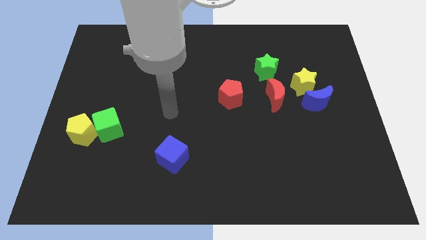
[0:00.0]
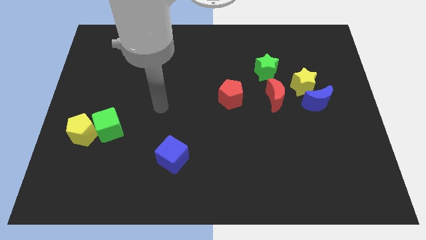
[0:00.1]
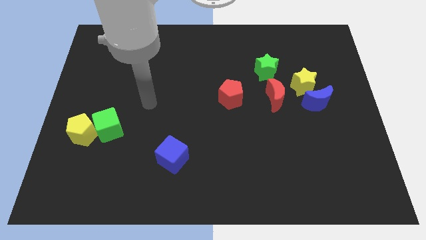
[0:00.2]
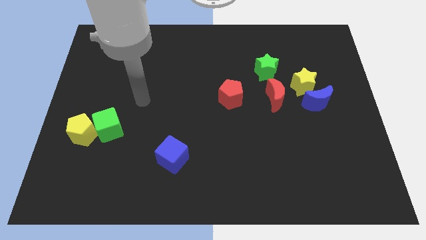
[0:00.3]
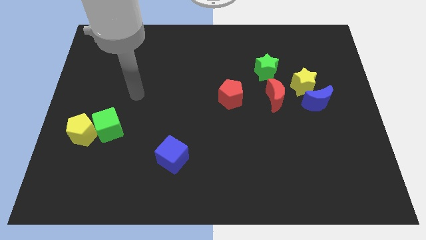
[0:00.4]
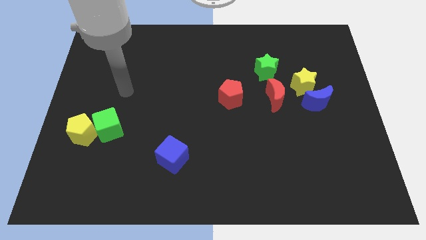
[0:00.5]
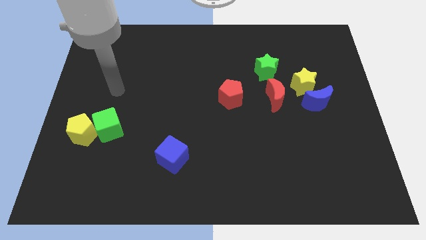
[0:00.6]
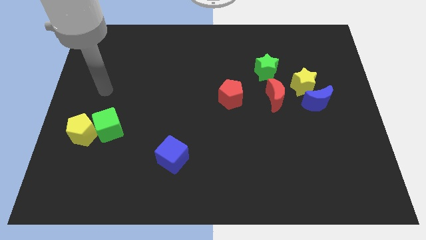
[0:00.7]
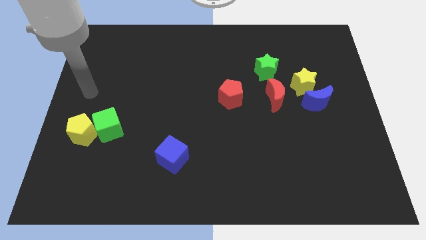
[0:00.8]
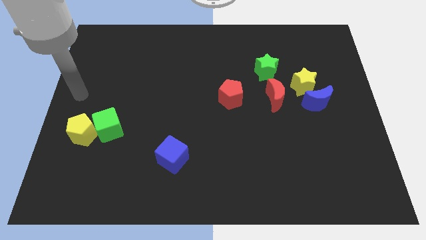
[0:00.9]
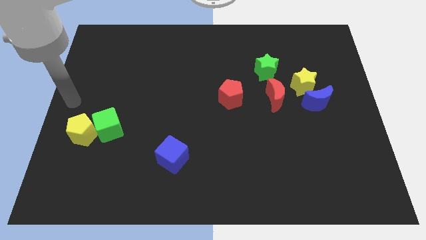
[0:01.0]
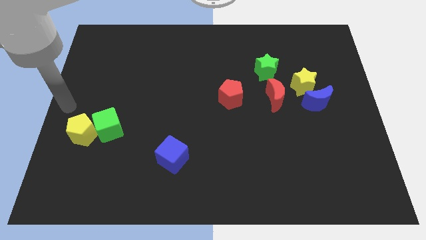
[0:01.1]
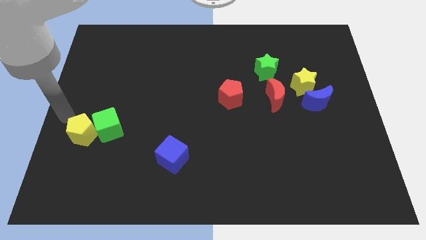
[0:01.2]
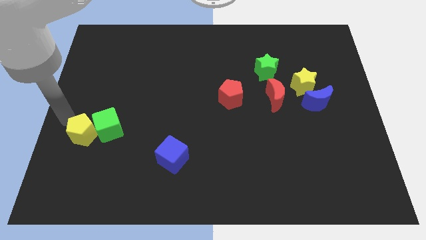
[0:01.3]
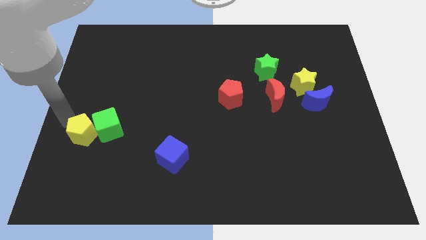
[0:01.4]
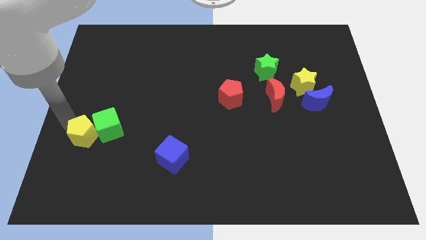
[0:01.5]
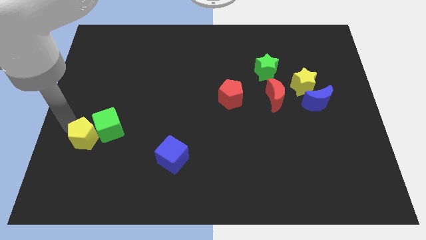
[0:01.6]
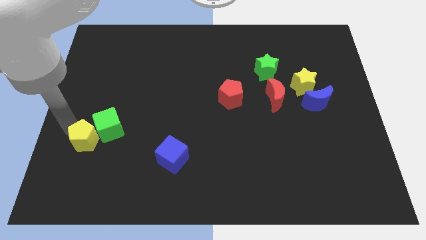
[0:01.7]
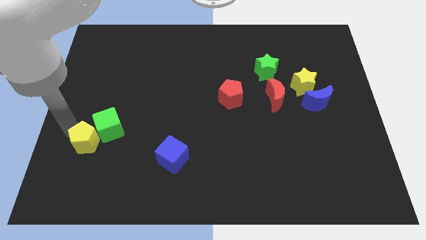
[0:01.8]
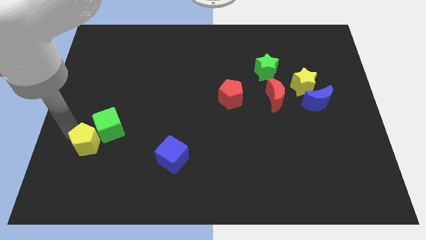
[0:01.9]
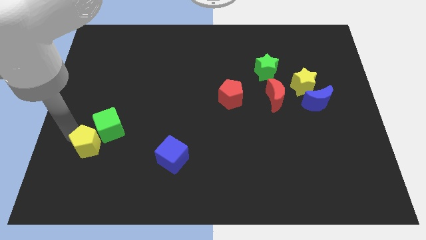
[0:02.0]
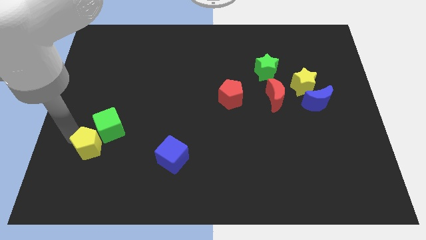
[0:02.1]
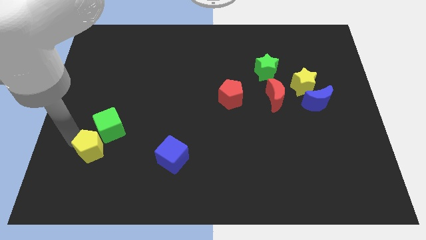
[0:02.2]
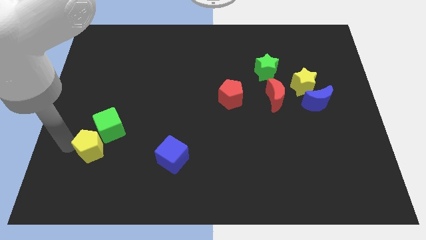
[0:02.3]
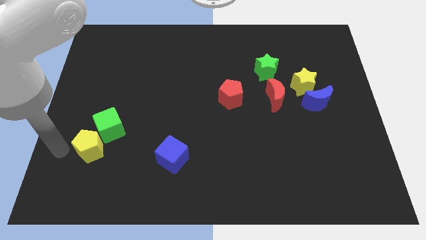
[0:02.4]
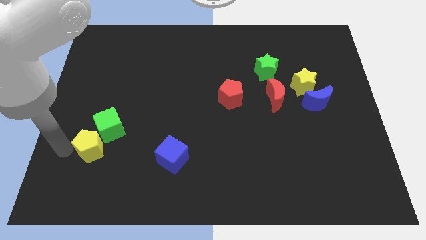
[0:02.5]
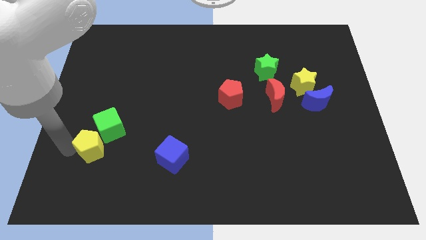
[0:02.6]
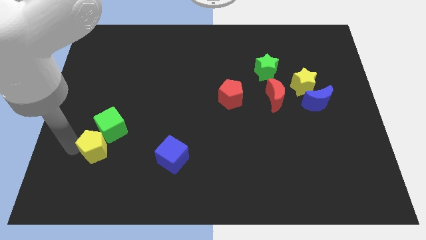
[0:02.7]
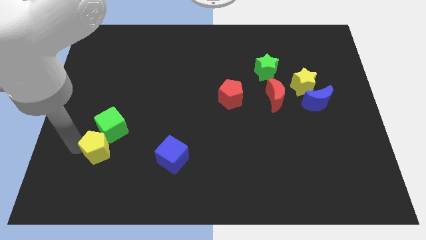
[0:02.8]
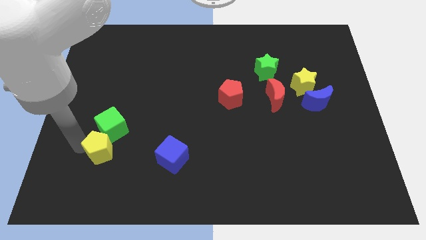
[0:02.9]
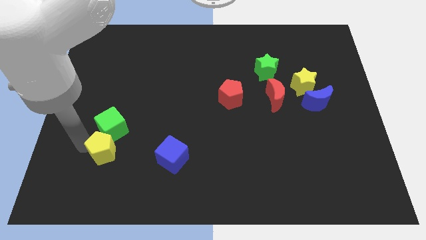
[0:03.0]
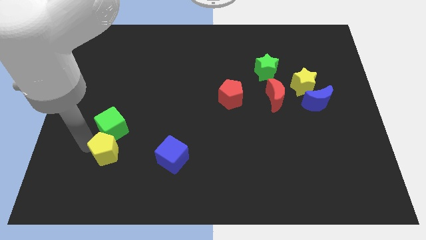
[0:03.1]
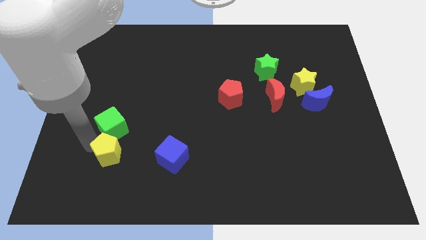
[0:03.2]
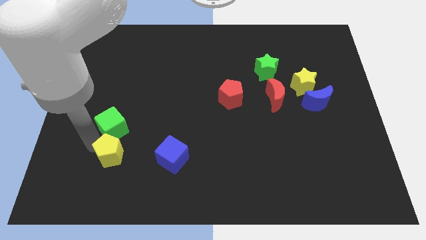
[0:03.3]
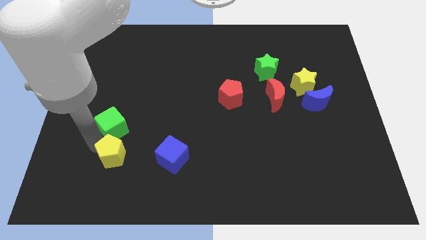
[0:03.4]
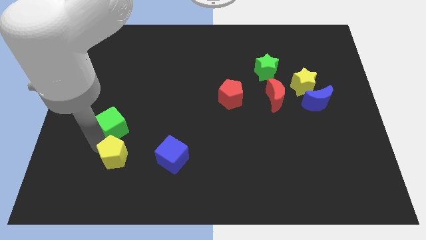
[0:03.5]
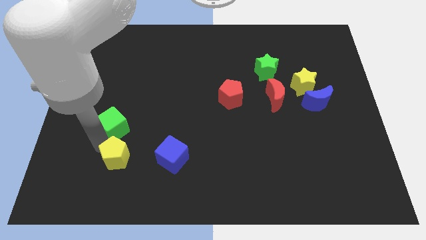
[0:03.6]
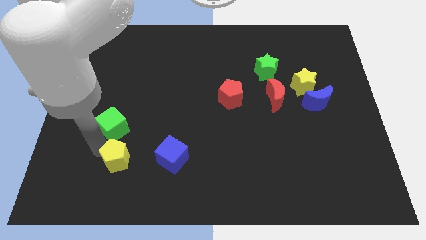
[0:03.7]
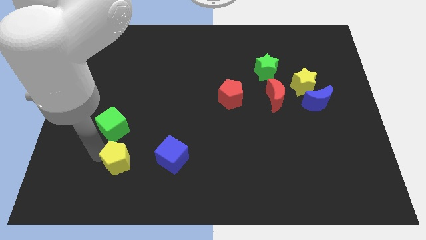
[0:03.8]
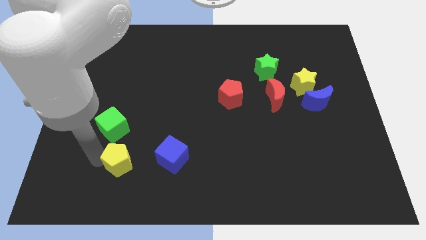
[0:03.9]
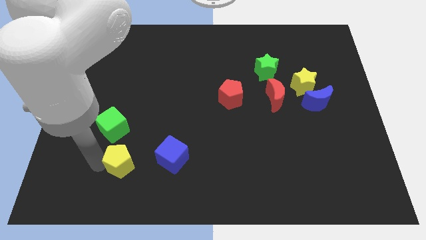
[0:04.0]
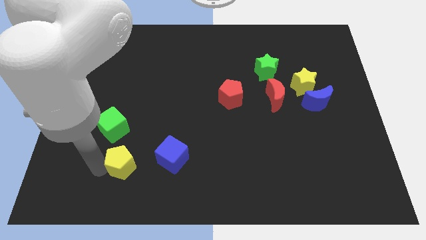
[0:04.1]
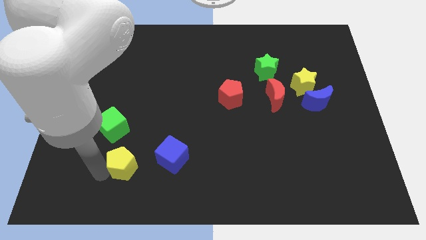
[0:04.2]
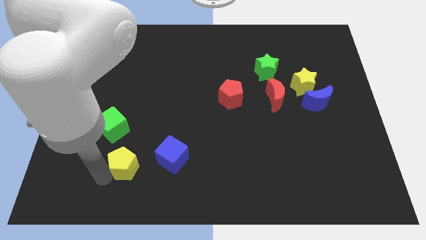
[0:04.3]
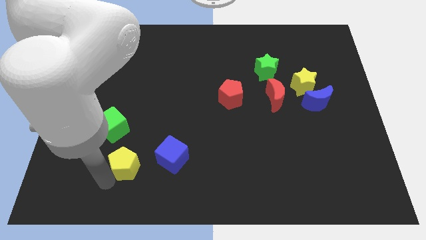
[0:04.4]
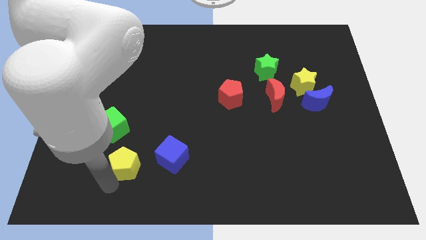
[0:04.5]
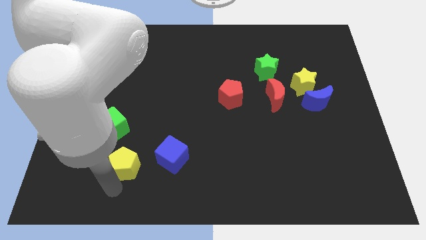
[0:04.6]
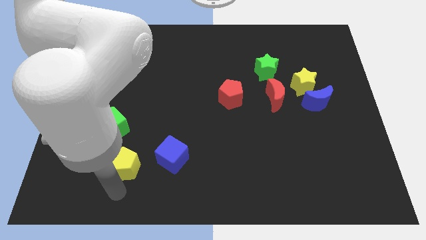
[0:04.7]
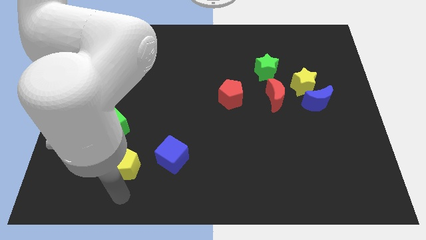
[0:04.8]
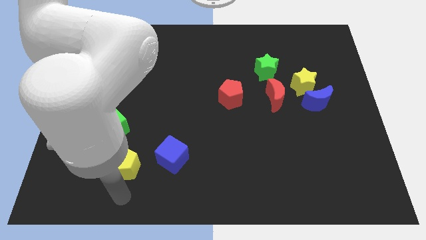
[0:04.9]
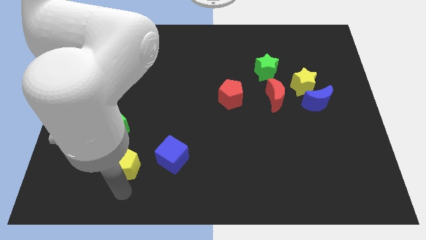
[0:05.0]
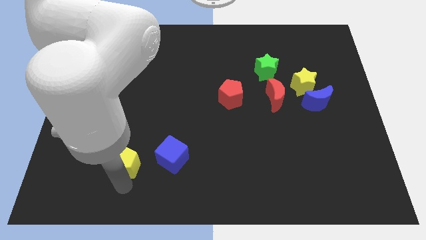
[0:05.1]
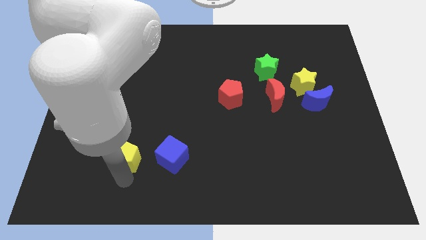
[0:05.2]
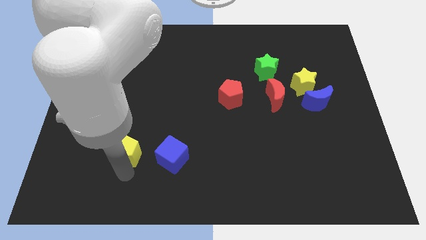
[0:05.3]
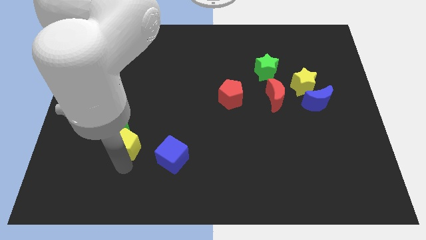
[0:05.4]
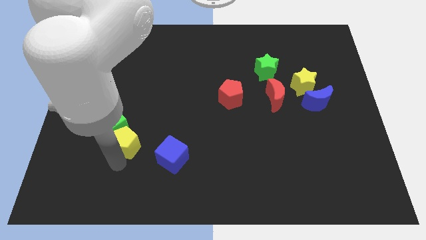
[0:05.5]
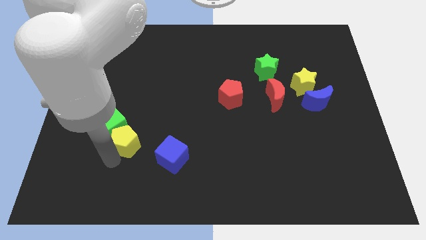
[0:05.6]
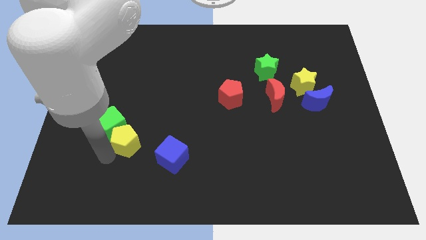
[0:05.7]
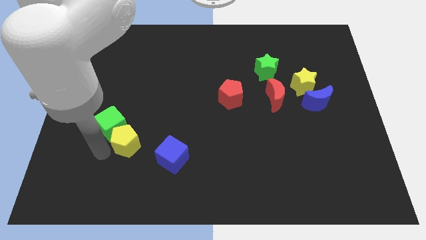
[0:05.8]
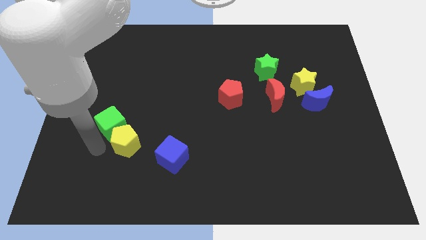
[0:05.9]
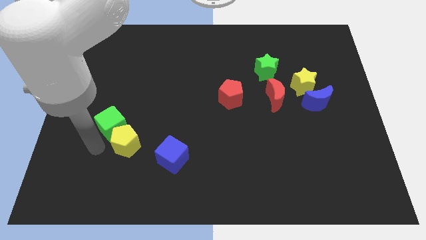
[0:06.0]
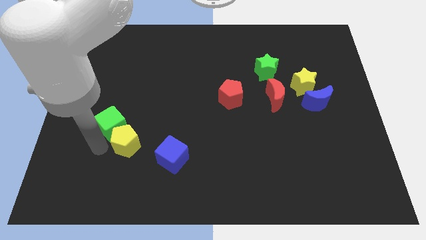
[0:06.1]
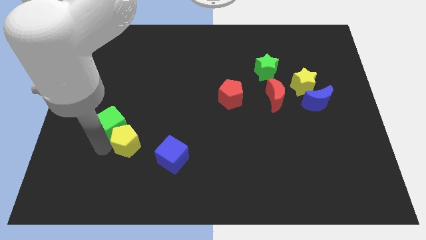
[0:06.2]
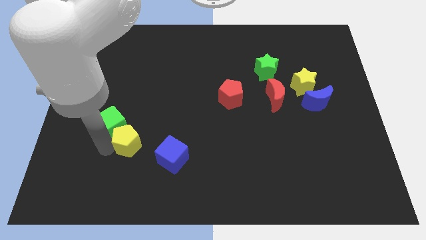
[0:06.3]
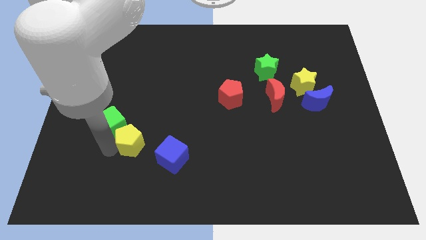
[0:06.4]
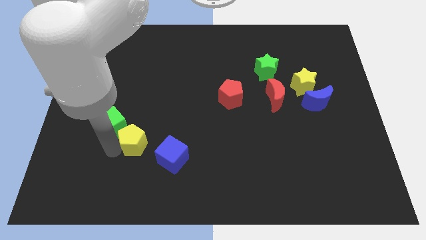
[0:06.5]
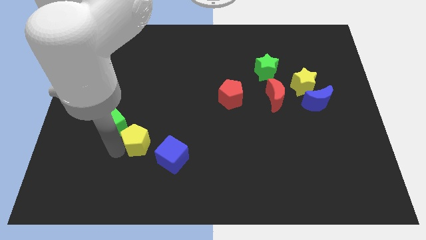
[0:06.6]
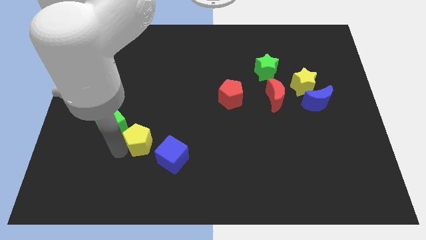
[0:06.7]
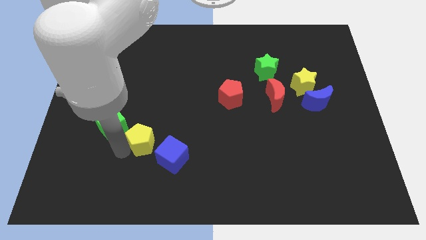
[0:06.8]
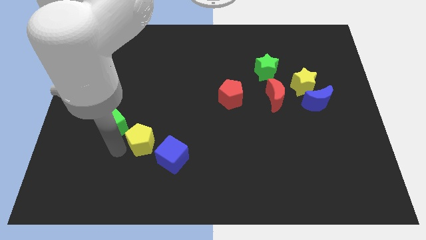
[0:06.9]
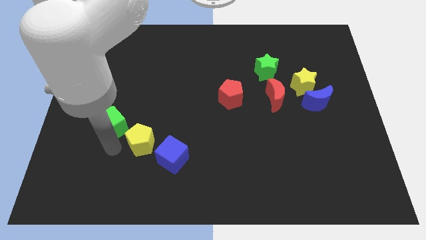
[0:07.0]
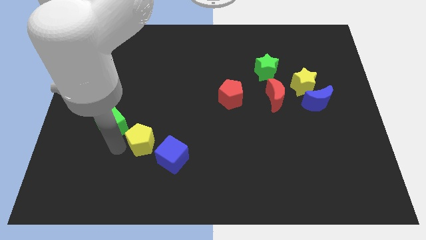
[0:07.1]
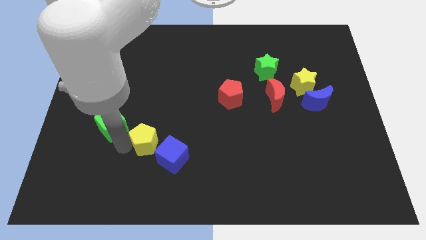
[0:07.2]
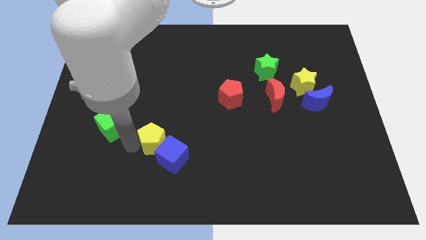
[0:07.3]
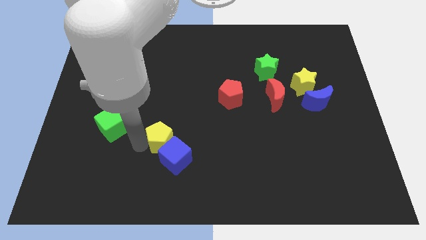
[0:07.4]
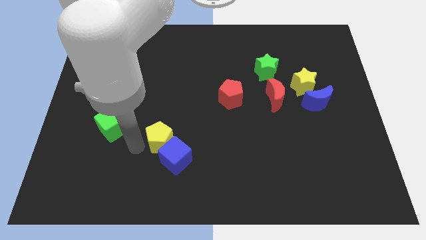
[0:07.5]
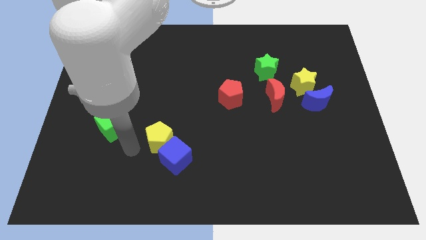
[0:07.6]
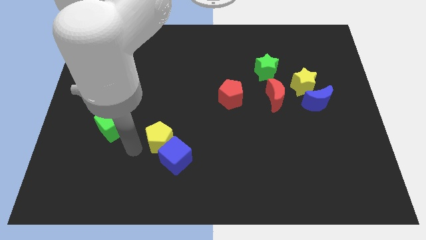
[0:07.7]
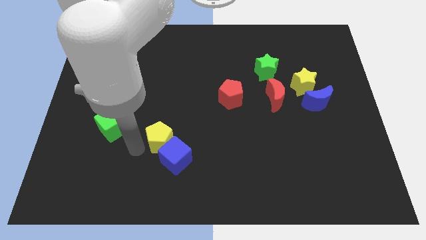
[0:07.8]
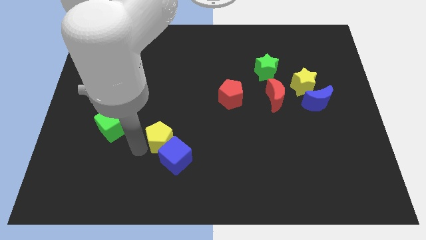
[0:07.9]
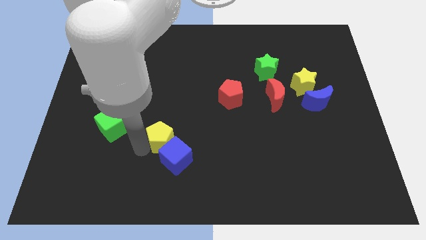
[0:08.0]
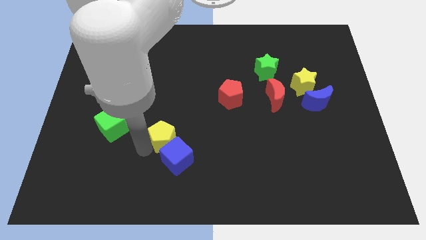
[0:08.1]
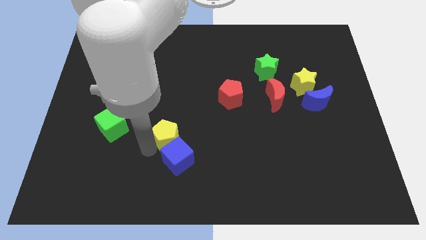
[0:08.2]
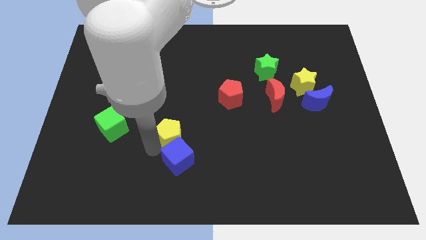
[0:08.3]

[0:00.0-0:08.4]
push the yellow pentagon to the right
